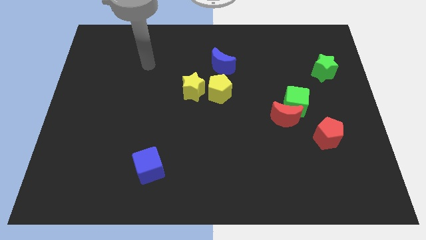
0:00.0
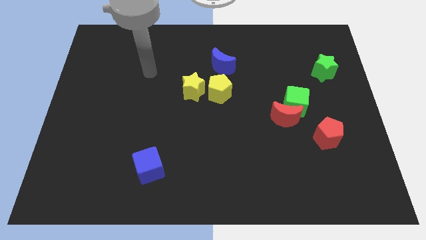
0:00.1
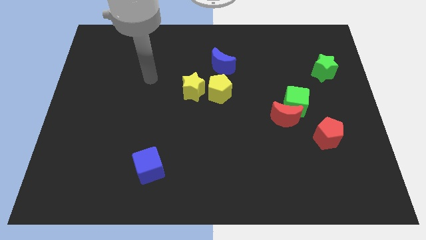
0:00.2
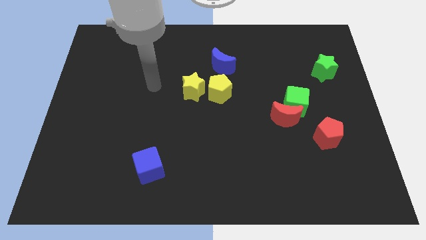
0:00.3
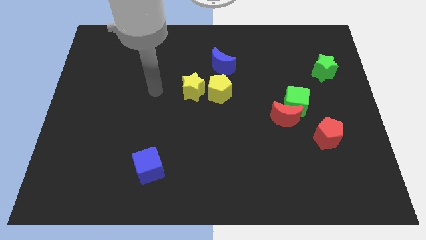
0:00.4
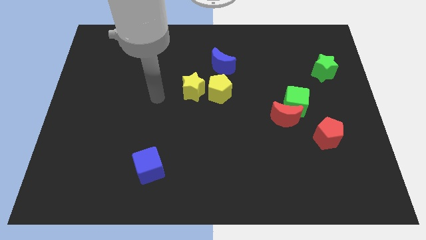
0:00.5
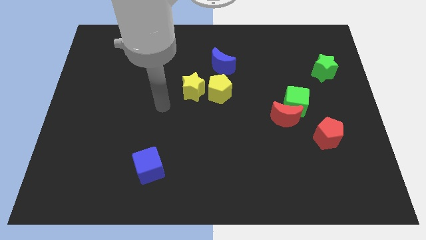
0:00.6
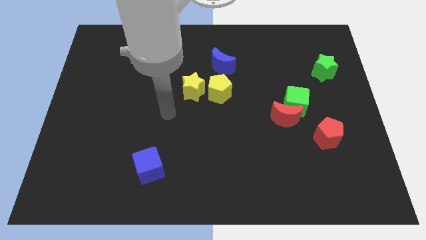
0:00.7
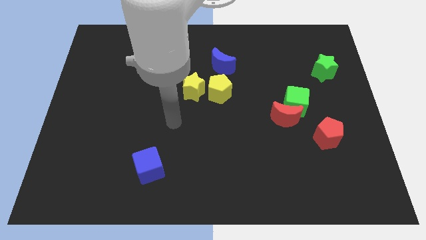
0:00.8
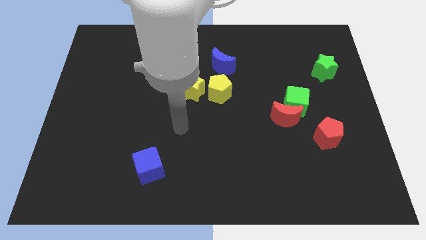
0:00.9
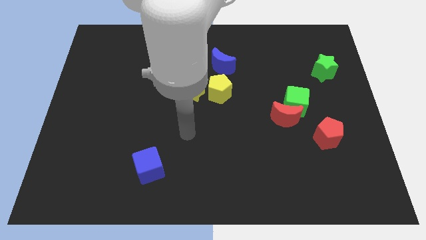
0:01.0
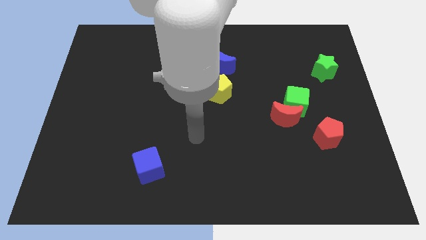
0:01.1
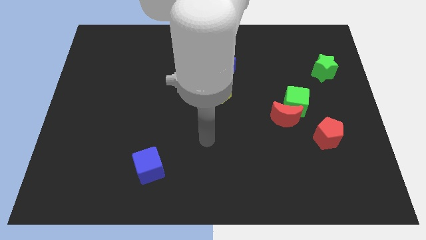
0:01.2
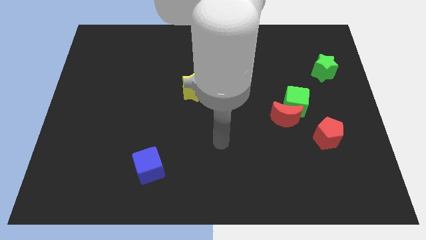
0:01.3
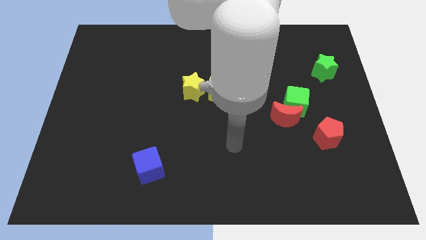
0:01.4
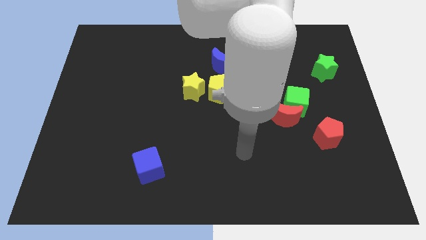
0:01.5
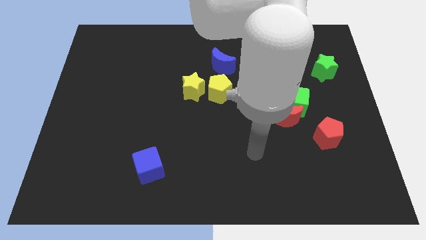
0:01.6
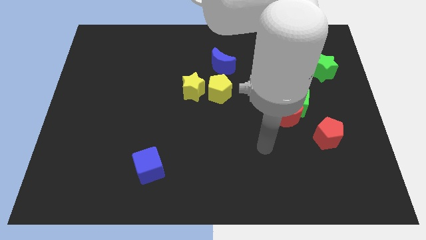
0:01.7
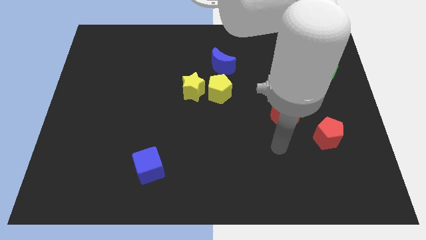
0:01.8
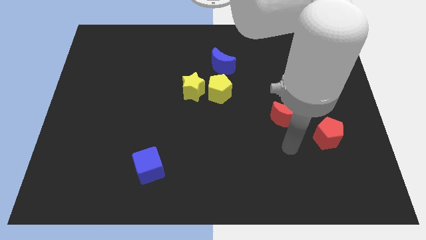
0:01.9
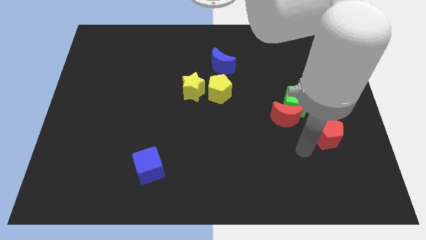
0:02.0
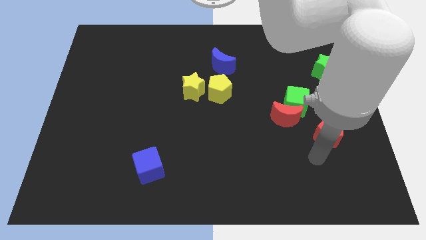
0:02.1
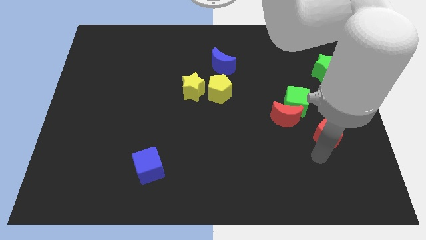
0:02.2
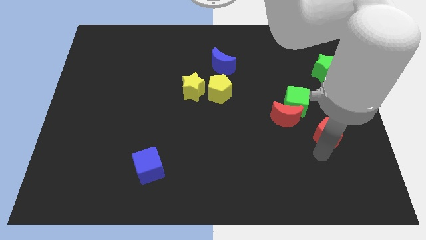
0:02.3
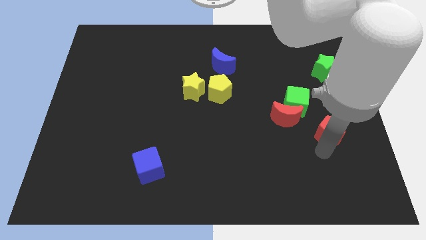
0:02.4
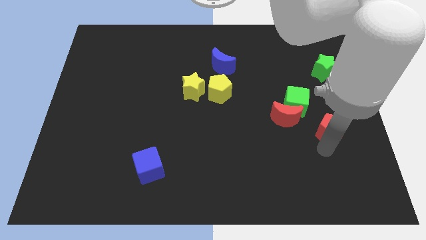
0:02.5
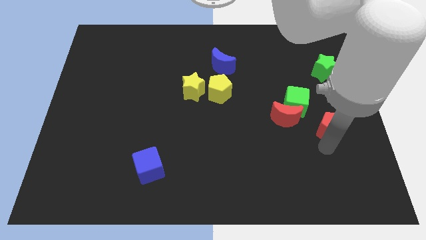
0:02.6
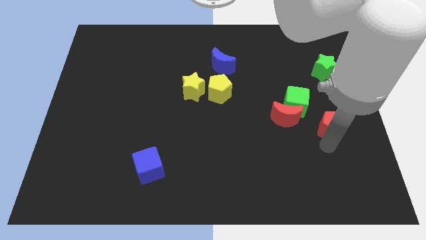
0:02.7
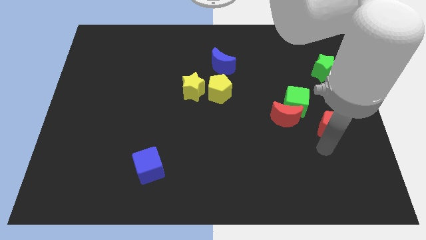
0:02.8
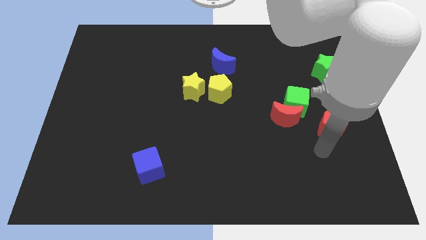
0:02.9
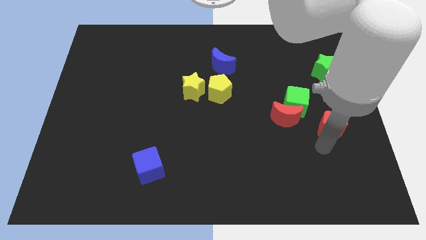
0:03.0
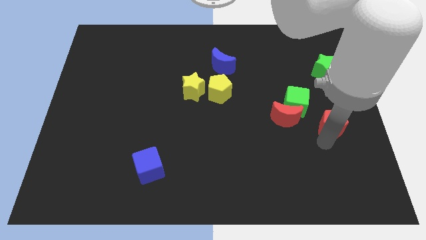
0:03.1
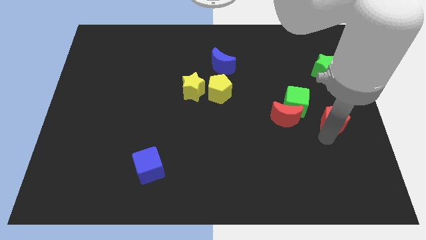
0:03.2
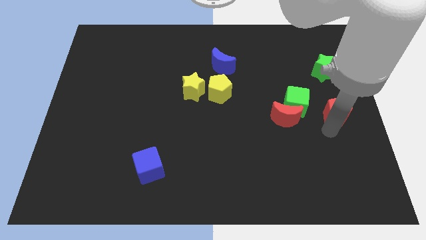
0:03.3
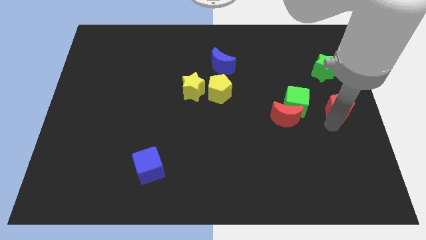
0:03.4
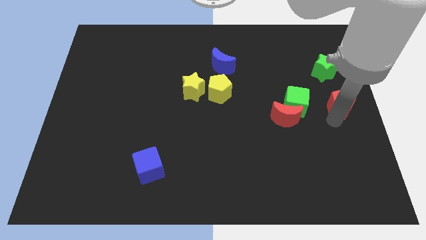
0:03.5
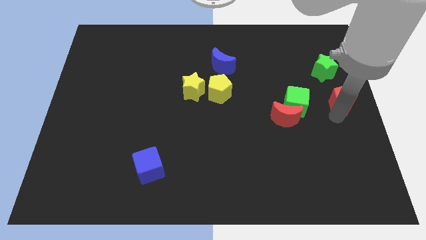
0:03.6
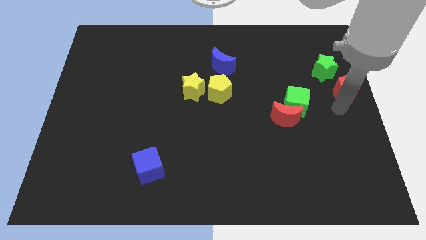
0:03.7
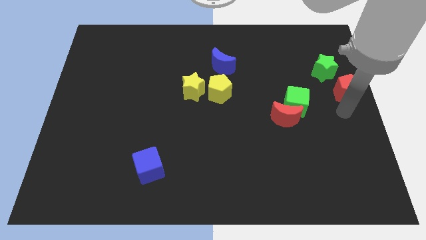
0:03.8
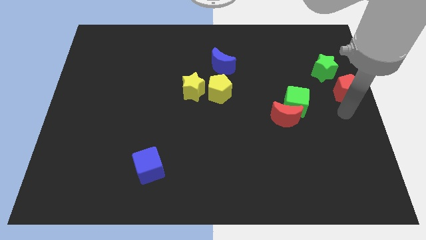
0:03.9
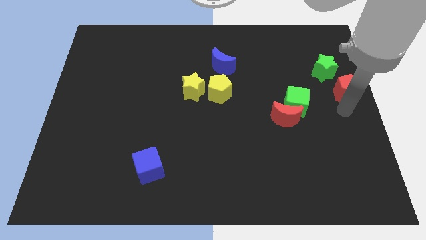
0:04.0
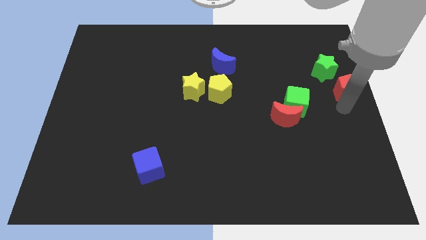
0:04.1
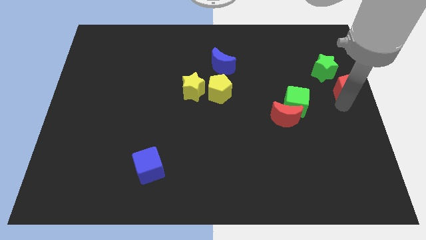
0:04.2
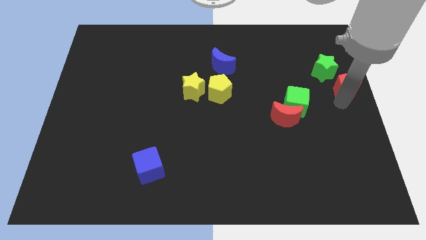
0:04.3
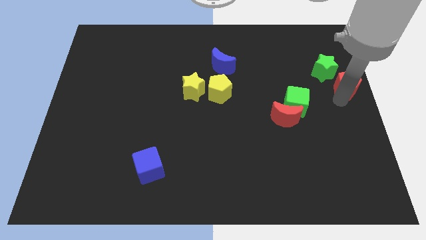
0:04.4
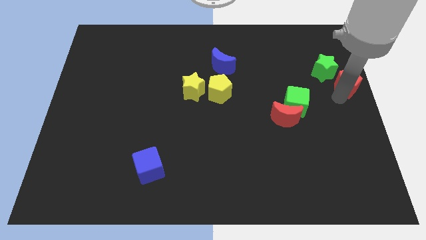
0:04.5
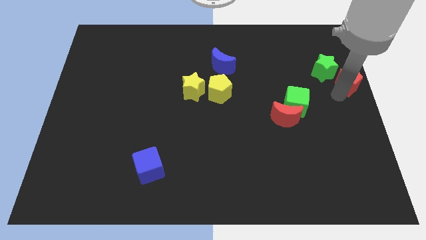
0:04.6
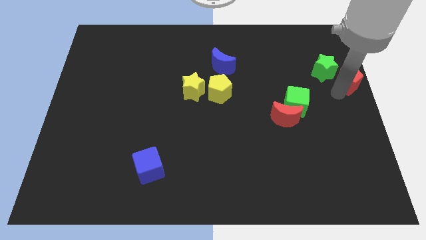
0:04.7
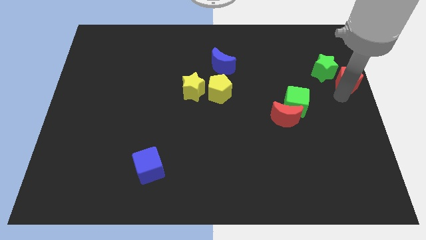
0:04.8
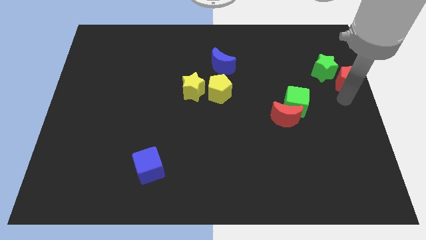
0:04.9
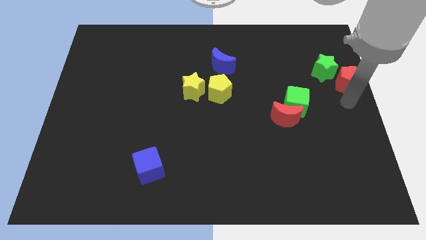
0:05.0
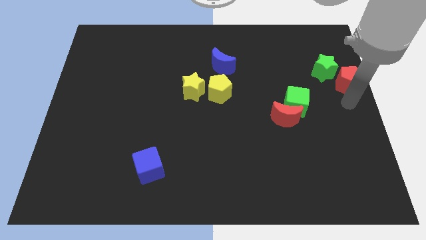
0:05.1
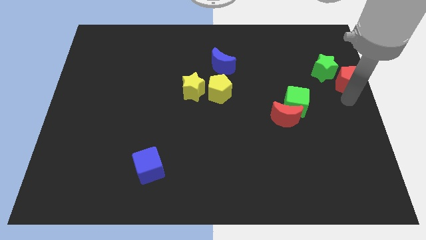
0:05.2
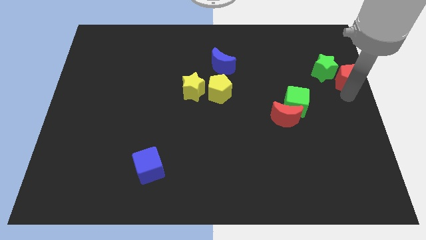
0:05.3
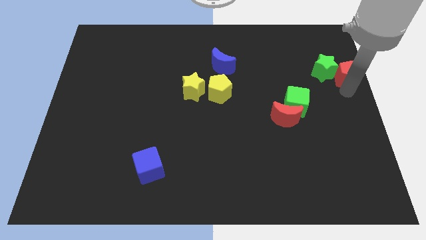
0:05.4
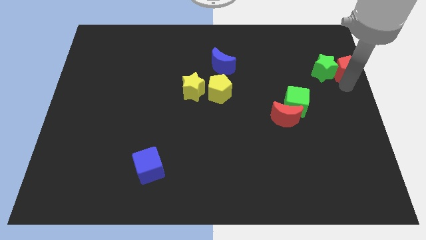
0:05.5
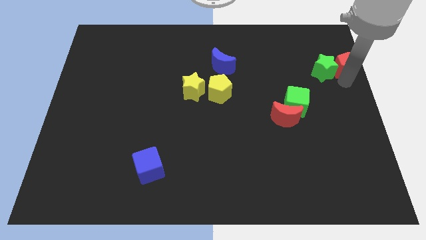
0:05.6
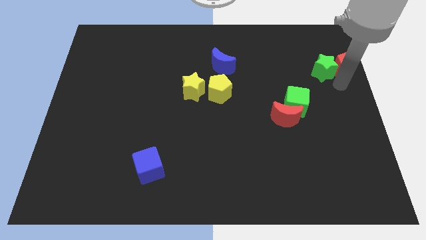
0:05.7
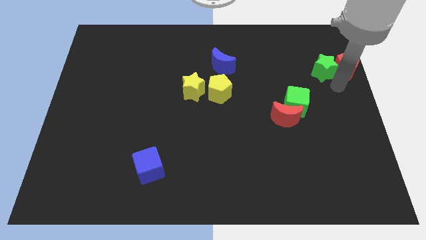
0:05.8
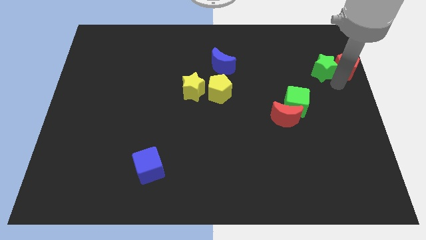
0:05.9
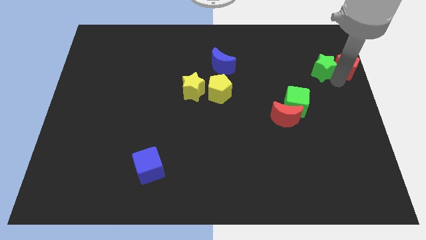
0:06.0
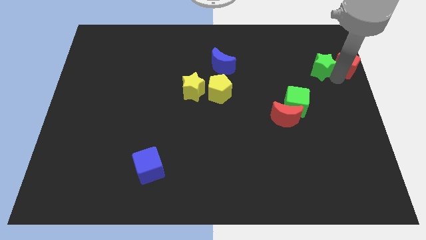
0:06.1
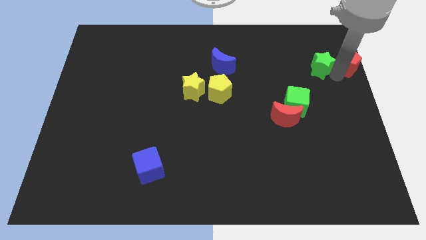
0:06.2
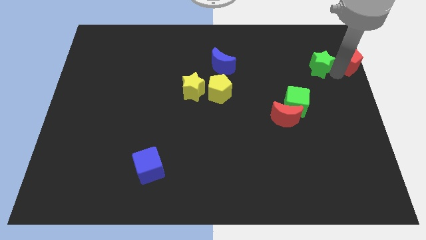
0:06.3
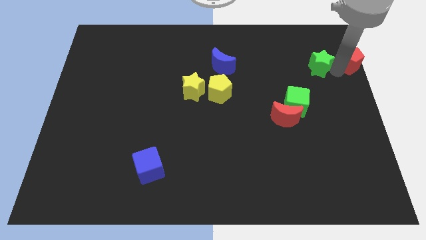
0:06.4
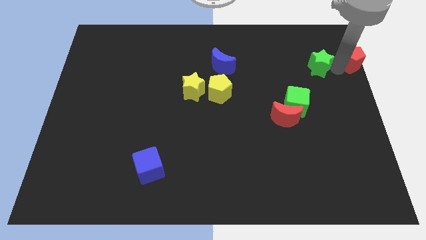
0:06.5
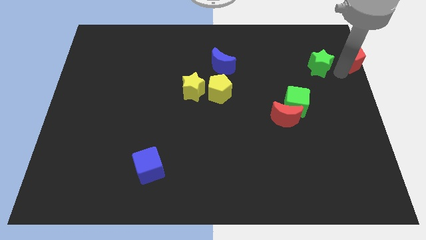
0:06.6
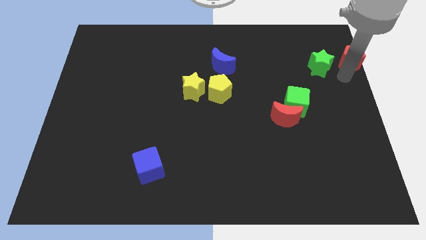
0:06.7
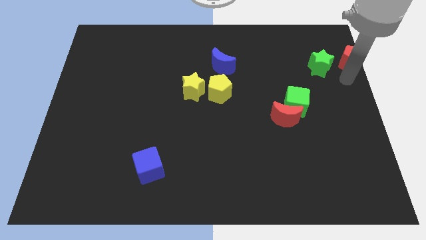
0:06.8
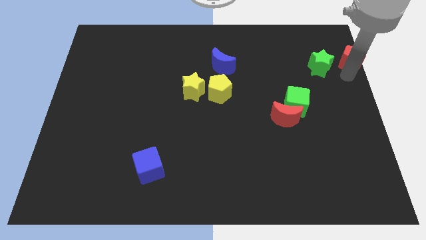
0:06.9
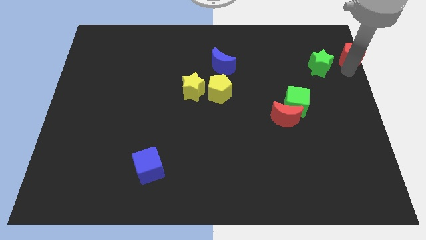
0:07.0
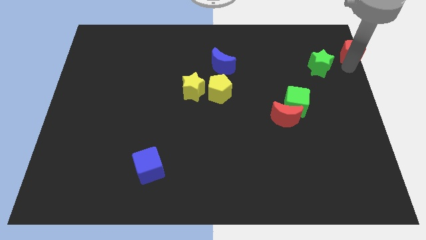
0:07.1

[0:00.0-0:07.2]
push the red pentagon to the upper right corner
